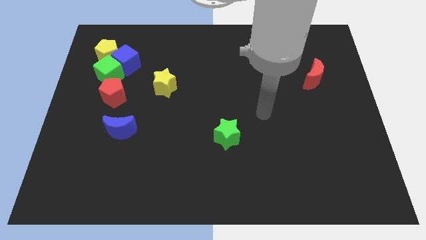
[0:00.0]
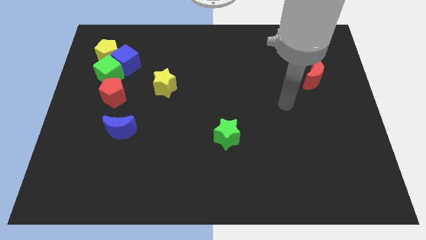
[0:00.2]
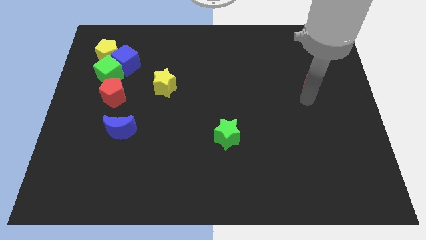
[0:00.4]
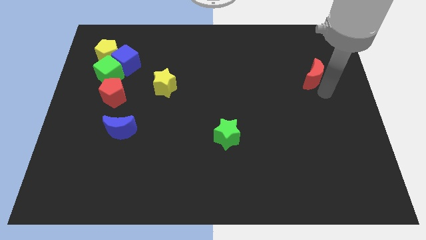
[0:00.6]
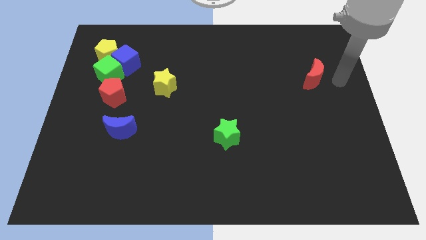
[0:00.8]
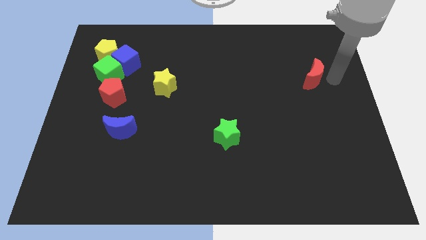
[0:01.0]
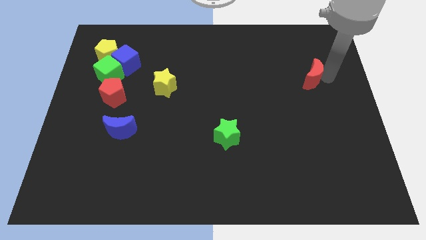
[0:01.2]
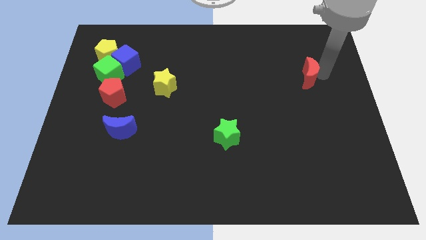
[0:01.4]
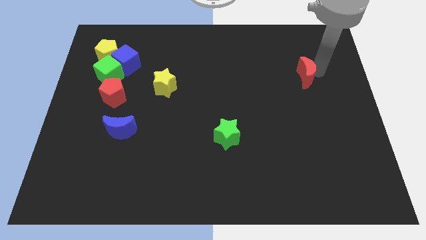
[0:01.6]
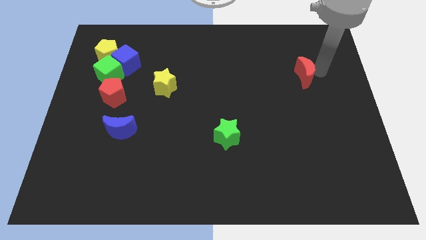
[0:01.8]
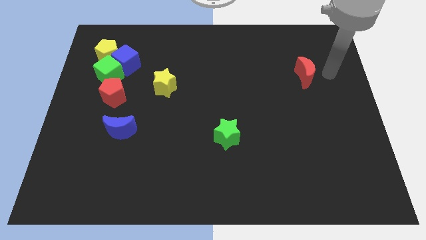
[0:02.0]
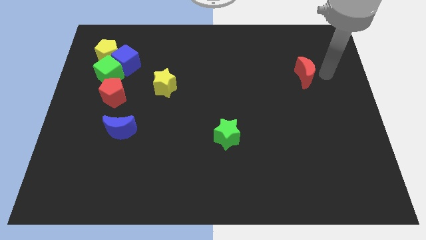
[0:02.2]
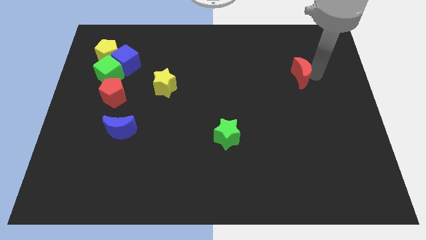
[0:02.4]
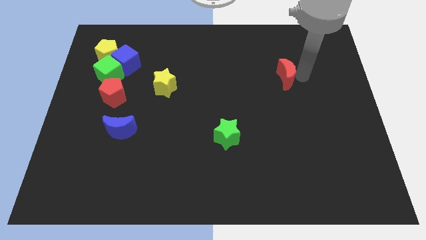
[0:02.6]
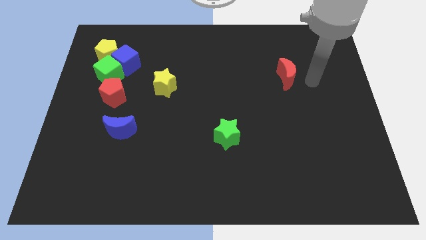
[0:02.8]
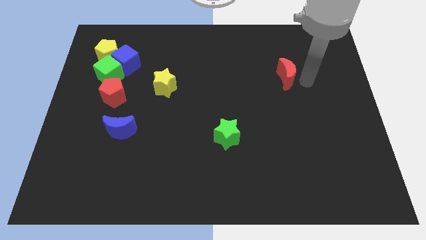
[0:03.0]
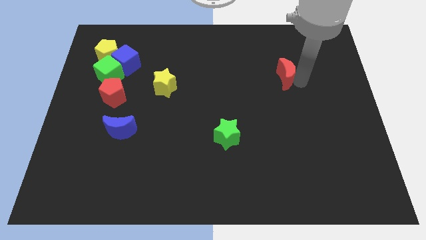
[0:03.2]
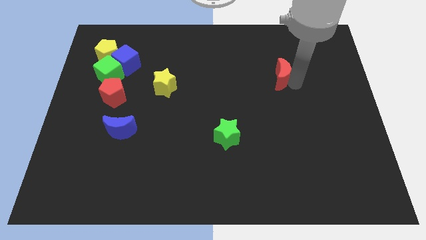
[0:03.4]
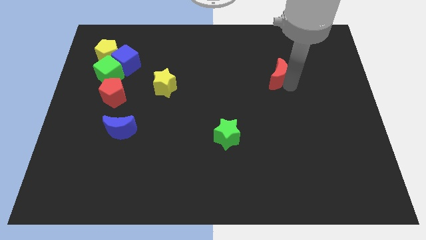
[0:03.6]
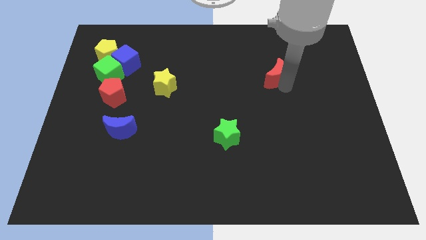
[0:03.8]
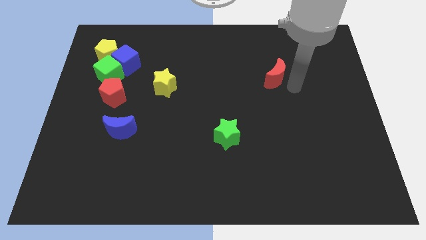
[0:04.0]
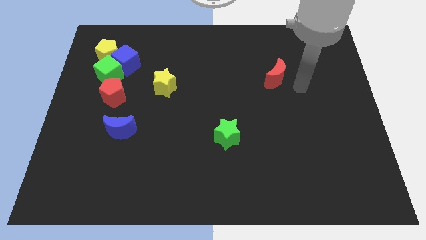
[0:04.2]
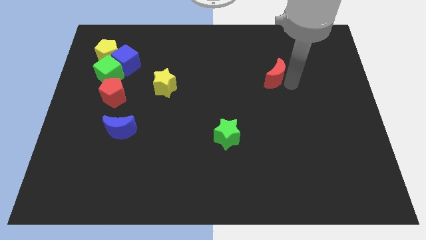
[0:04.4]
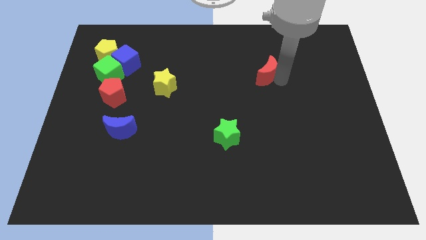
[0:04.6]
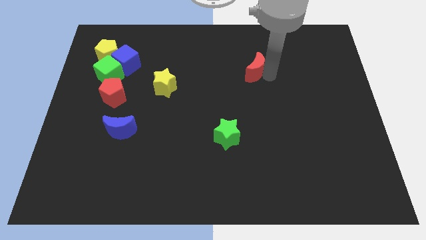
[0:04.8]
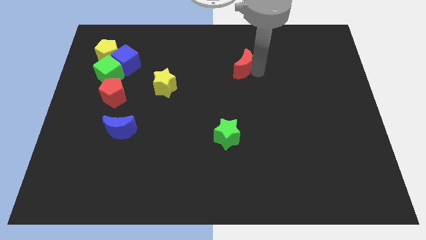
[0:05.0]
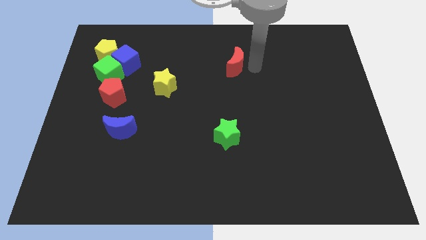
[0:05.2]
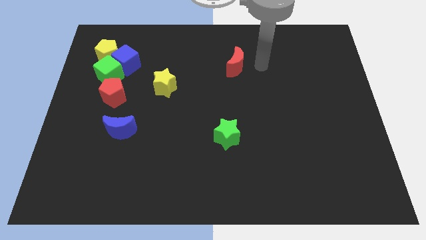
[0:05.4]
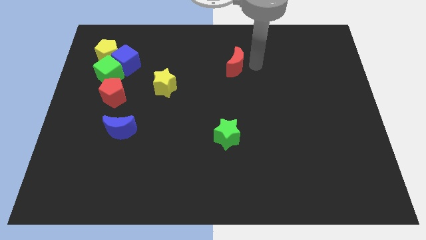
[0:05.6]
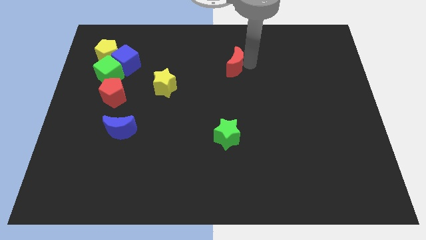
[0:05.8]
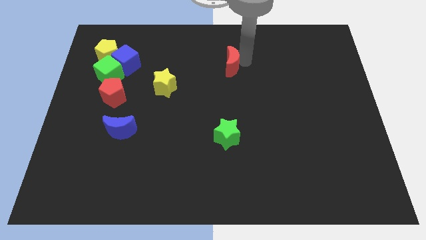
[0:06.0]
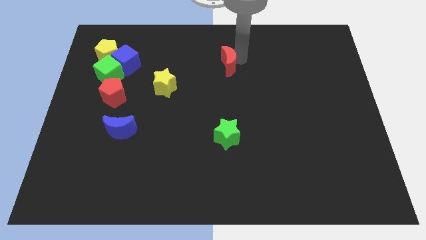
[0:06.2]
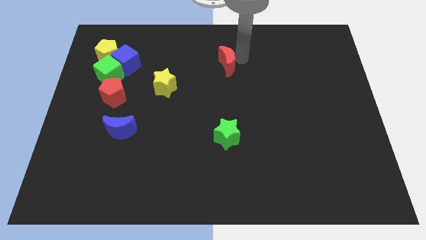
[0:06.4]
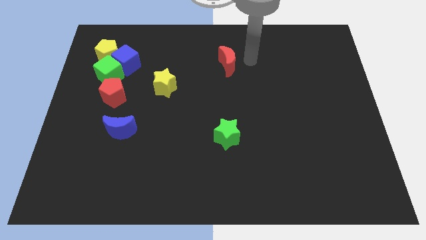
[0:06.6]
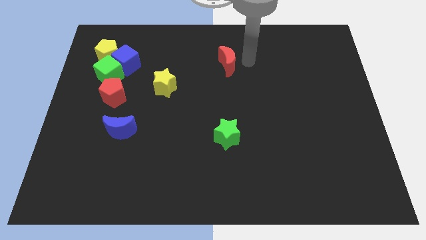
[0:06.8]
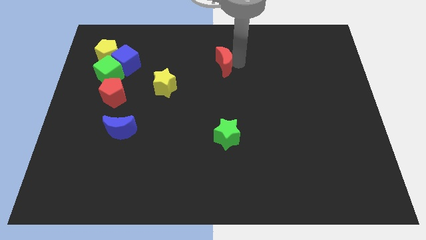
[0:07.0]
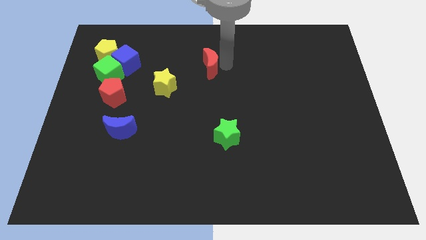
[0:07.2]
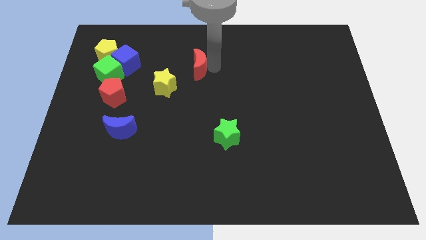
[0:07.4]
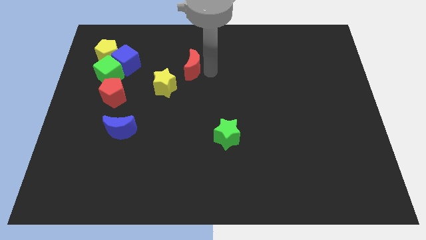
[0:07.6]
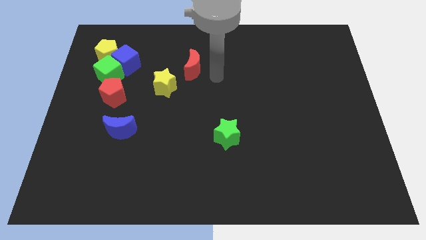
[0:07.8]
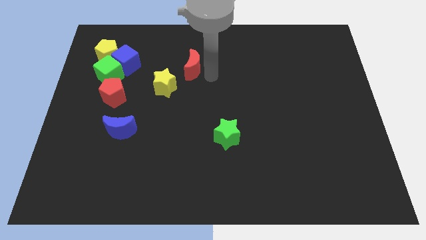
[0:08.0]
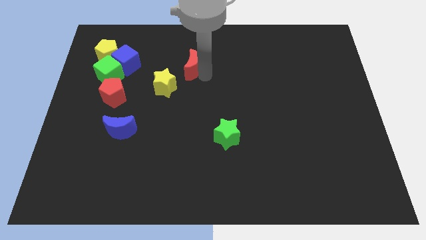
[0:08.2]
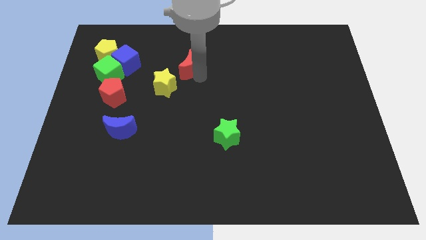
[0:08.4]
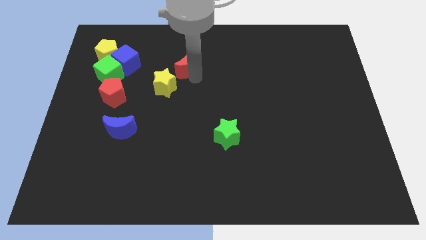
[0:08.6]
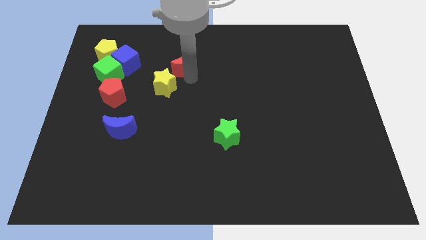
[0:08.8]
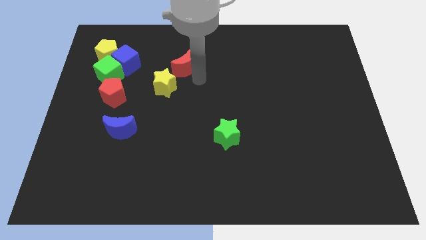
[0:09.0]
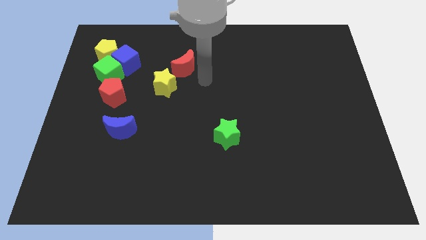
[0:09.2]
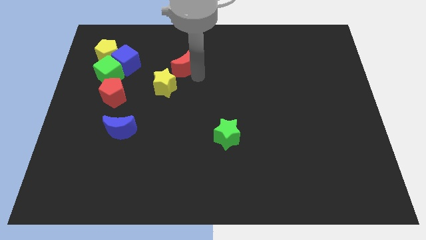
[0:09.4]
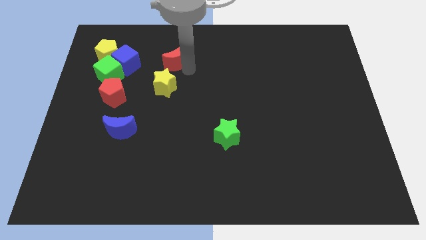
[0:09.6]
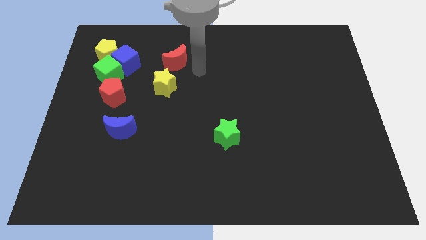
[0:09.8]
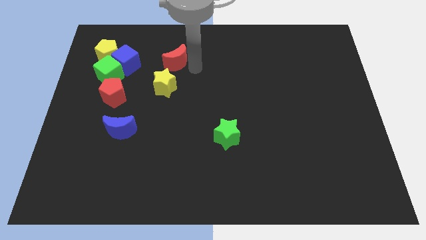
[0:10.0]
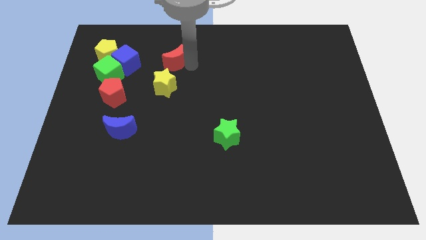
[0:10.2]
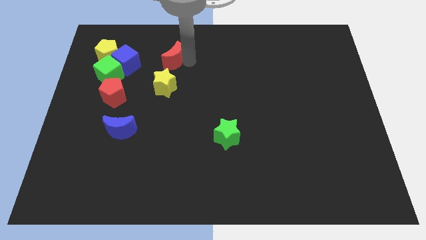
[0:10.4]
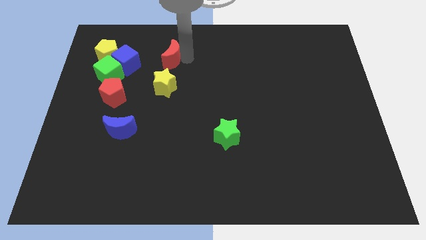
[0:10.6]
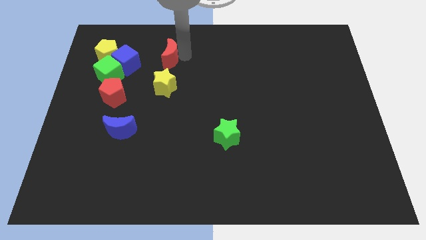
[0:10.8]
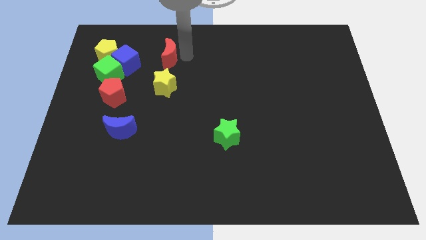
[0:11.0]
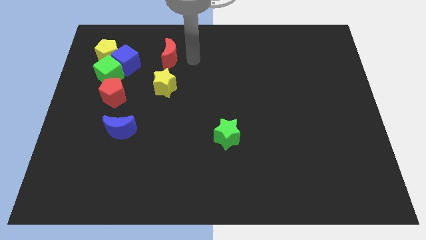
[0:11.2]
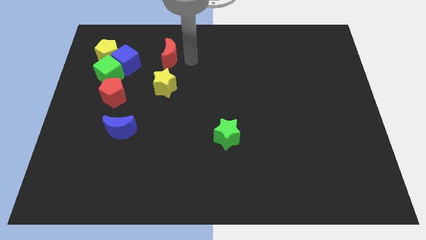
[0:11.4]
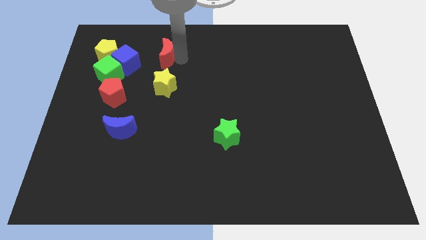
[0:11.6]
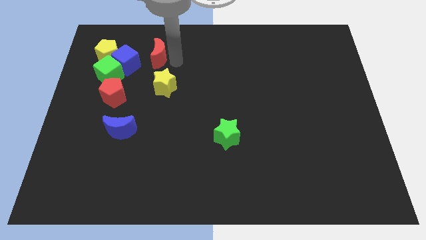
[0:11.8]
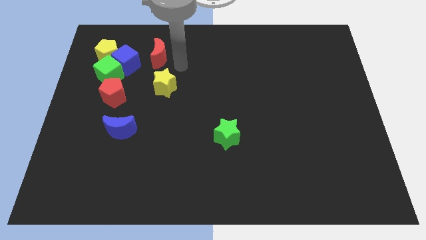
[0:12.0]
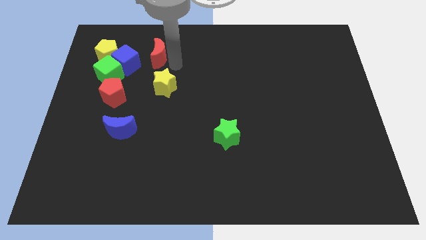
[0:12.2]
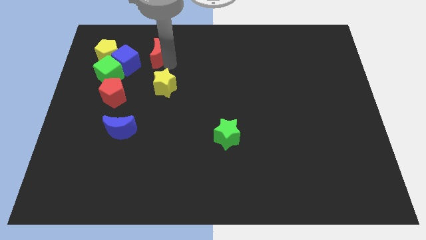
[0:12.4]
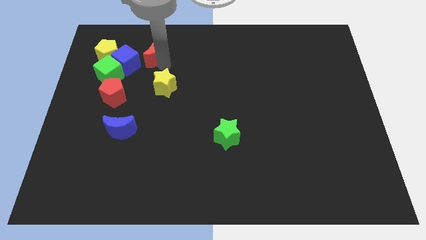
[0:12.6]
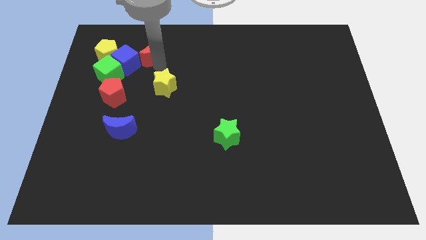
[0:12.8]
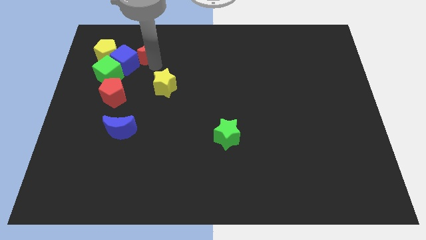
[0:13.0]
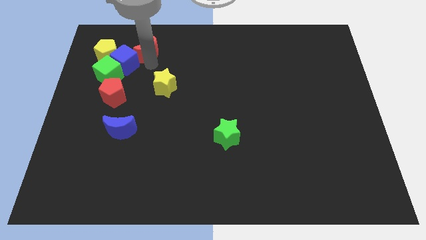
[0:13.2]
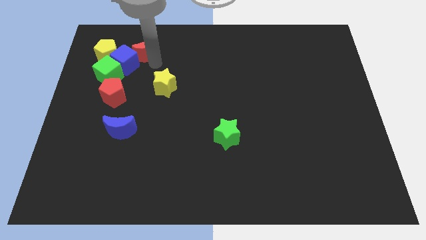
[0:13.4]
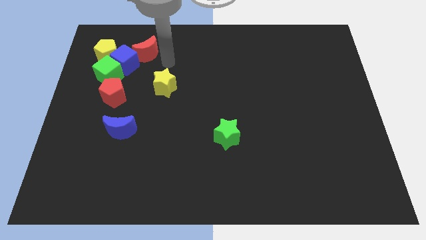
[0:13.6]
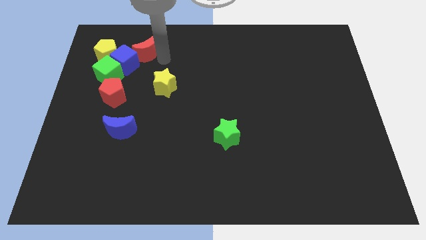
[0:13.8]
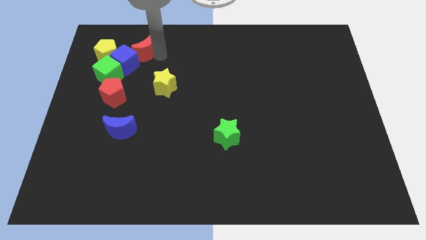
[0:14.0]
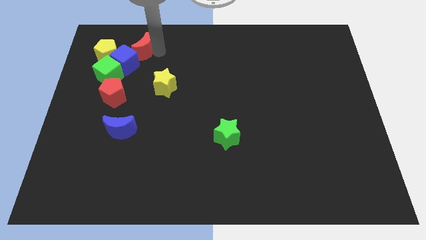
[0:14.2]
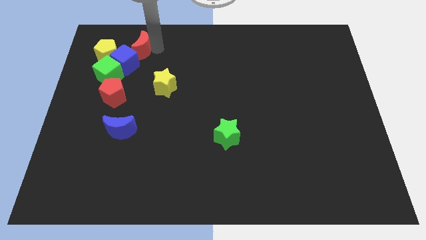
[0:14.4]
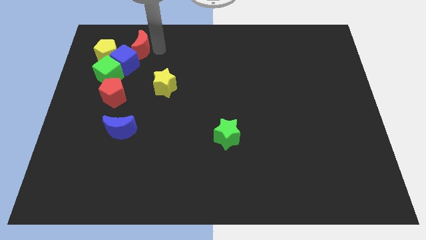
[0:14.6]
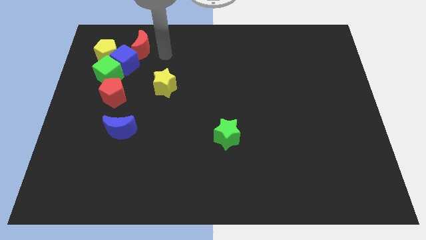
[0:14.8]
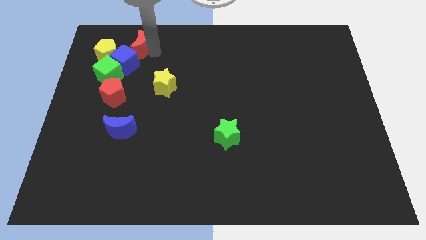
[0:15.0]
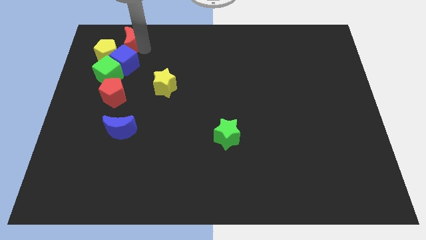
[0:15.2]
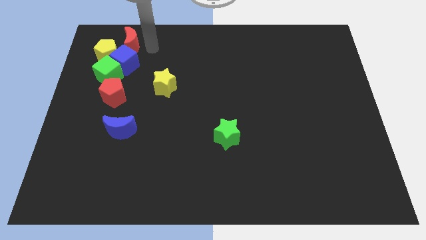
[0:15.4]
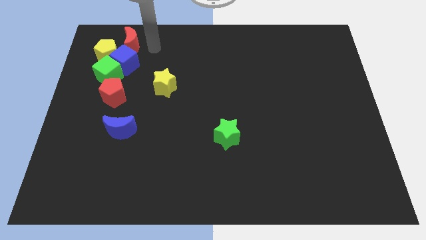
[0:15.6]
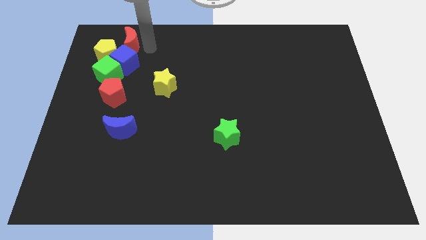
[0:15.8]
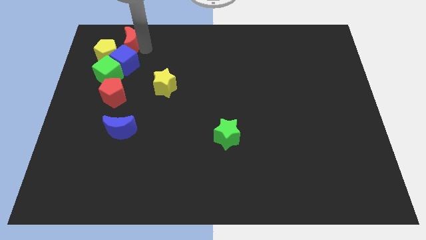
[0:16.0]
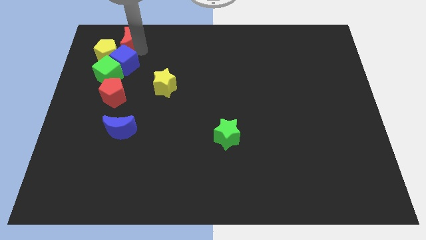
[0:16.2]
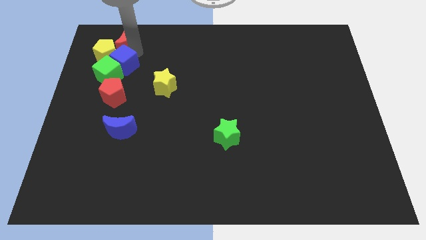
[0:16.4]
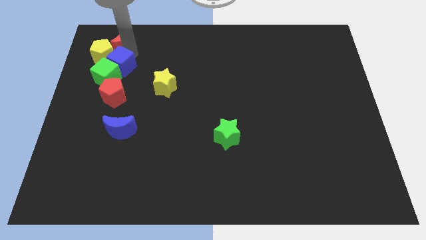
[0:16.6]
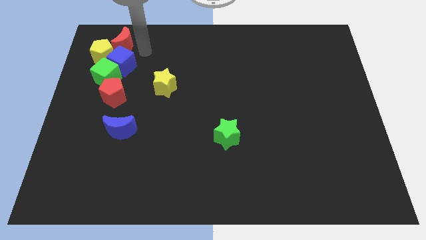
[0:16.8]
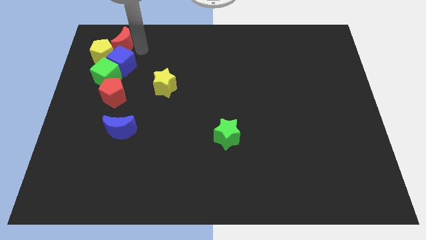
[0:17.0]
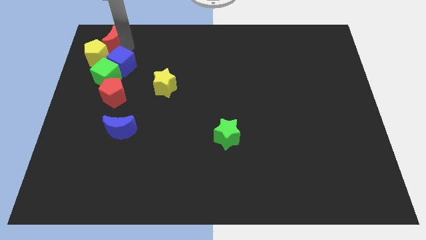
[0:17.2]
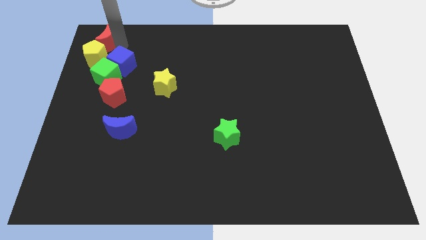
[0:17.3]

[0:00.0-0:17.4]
push the red moon to the upper left corner
